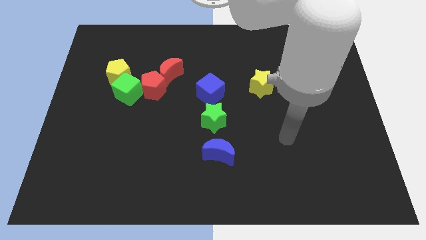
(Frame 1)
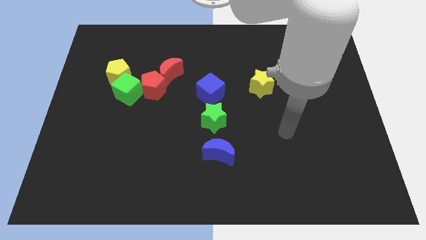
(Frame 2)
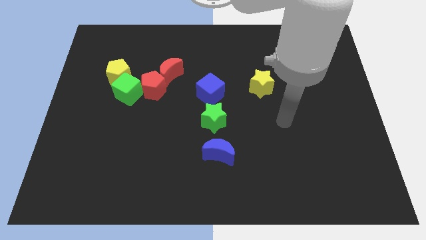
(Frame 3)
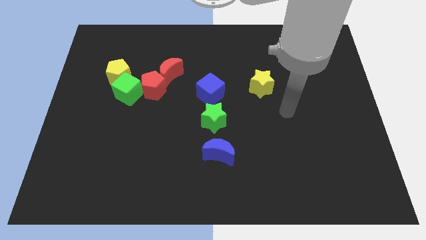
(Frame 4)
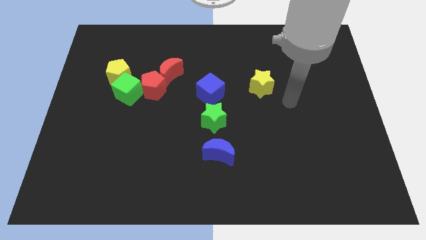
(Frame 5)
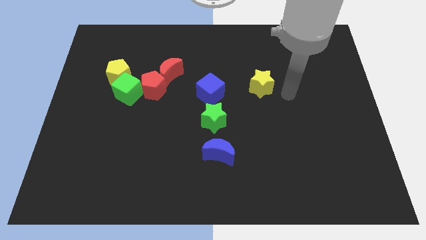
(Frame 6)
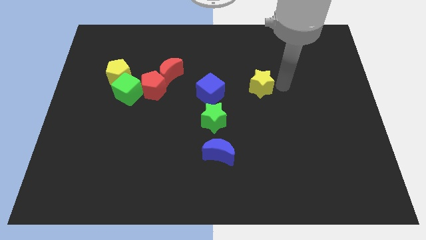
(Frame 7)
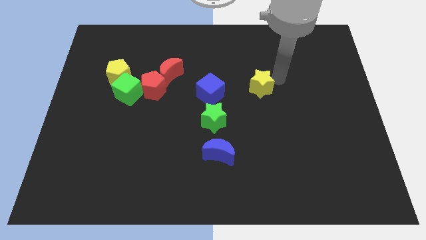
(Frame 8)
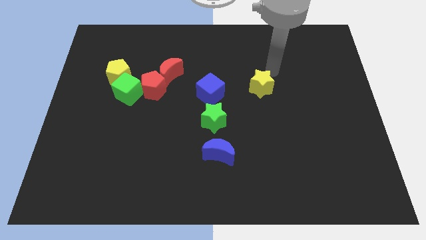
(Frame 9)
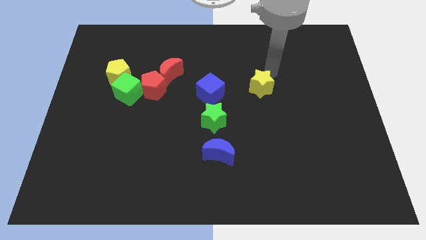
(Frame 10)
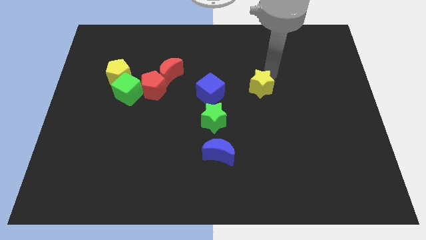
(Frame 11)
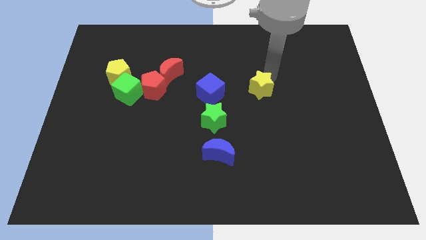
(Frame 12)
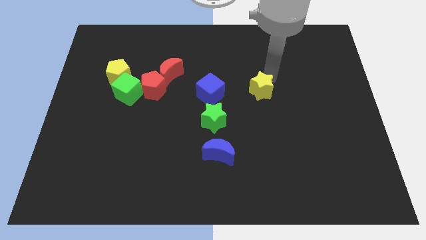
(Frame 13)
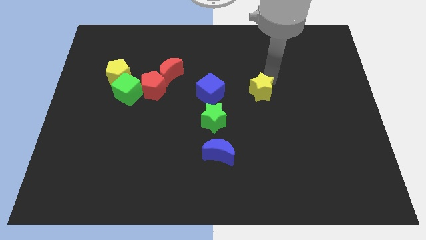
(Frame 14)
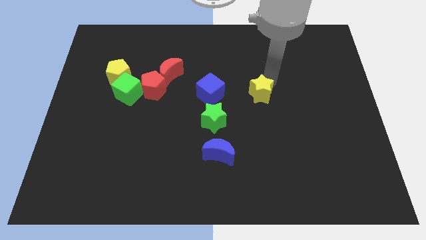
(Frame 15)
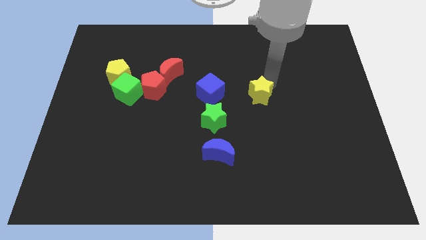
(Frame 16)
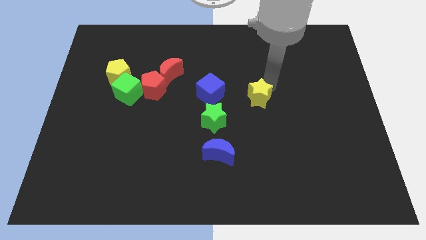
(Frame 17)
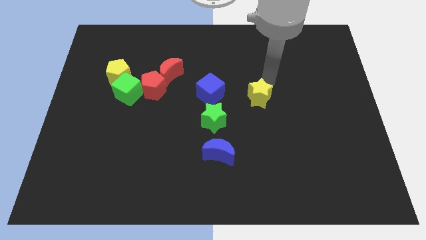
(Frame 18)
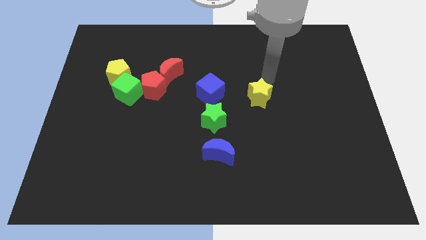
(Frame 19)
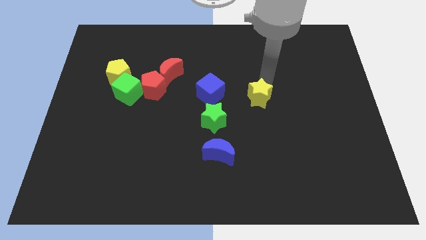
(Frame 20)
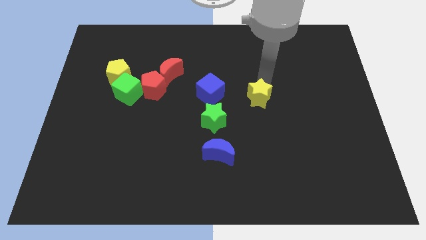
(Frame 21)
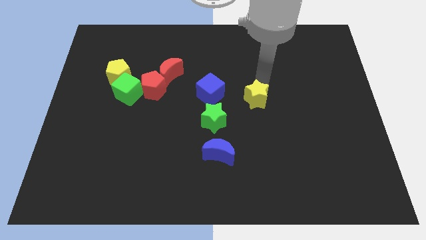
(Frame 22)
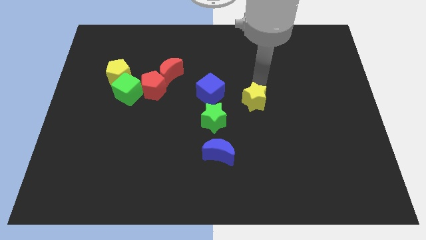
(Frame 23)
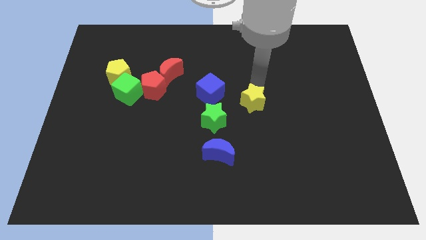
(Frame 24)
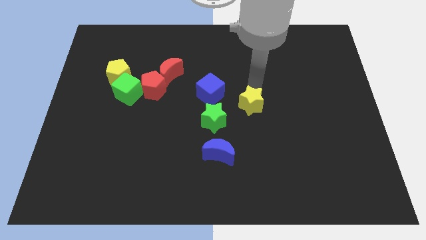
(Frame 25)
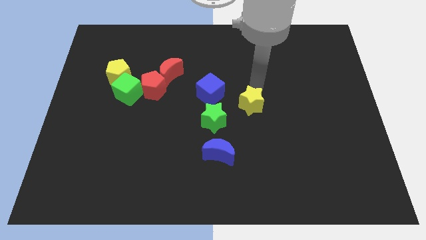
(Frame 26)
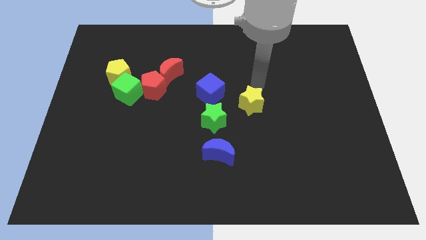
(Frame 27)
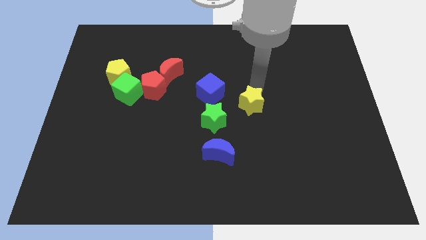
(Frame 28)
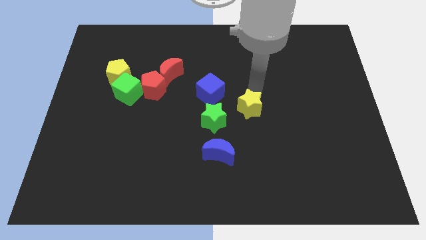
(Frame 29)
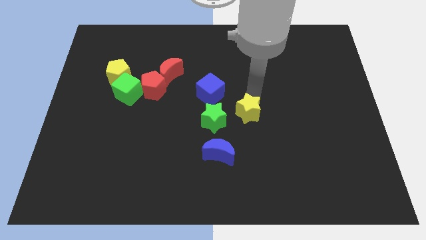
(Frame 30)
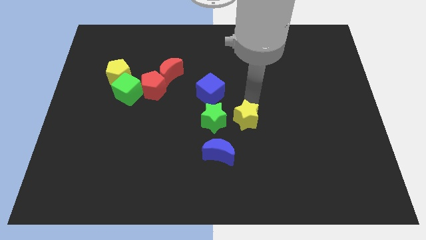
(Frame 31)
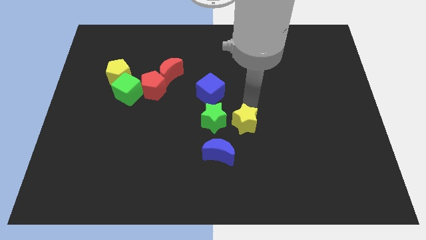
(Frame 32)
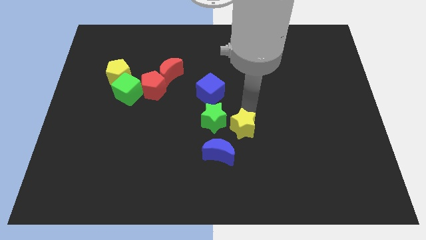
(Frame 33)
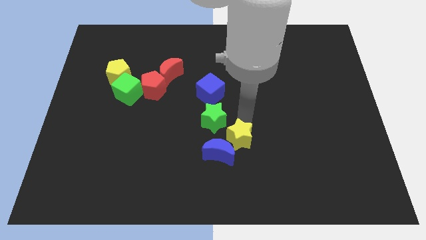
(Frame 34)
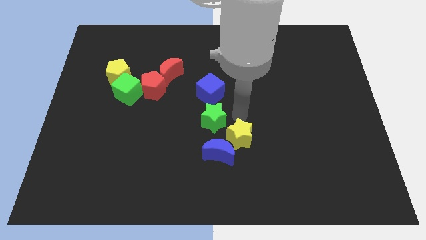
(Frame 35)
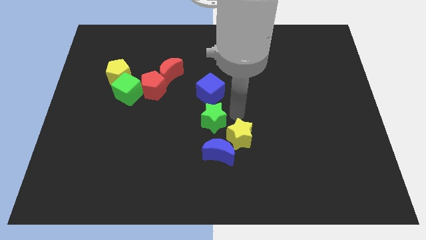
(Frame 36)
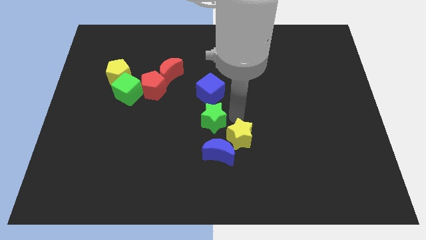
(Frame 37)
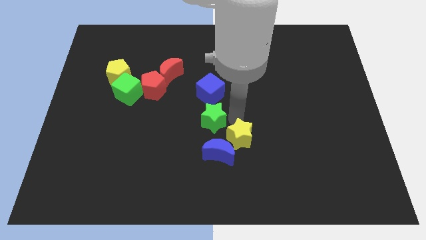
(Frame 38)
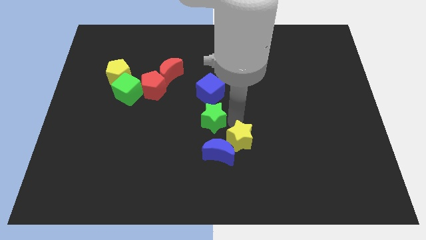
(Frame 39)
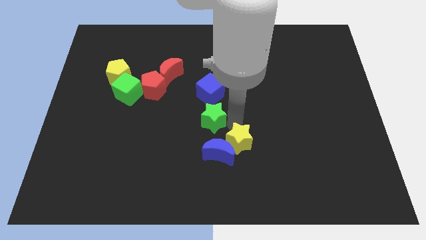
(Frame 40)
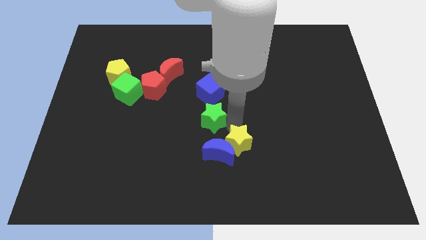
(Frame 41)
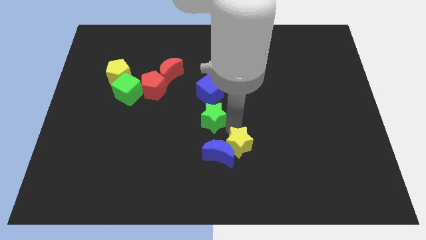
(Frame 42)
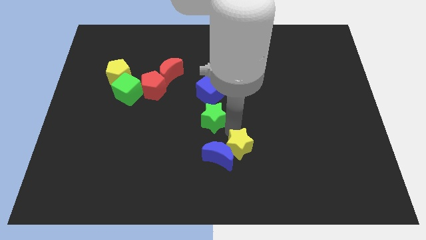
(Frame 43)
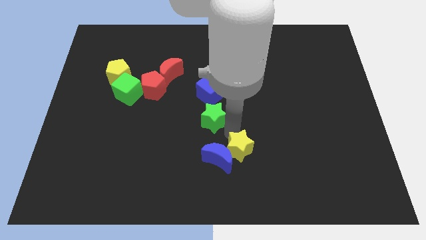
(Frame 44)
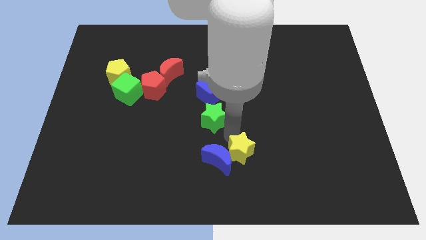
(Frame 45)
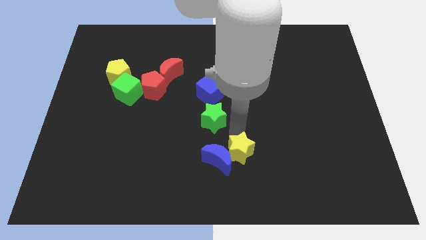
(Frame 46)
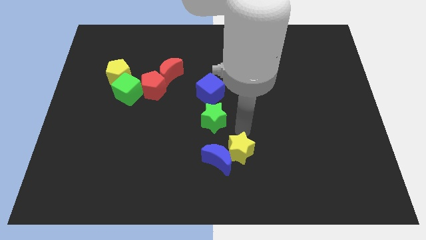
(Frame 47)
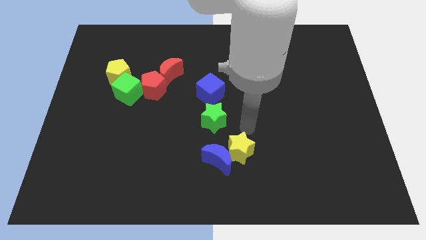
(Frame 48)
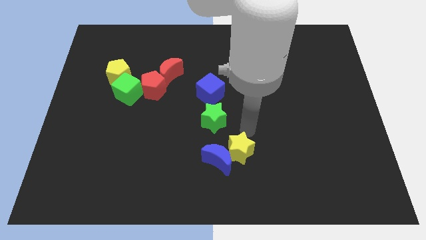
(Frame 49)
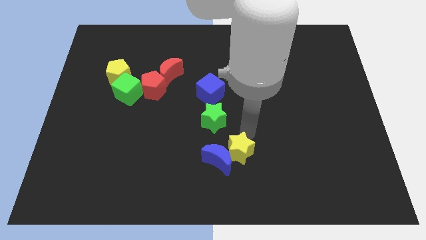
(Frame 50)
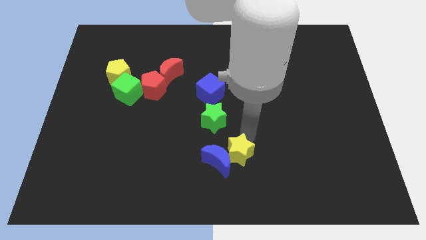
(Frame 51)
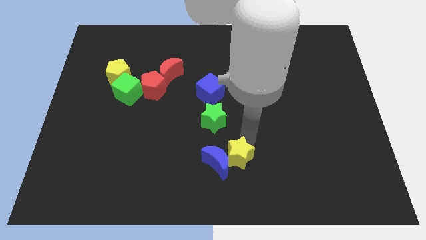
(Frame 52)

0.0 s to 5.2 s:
slide the yellow star to the bottom side

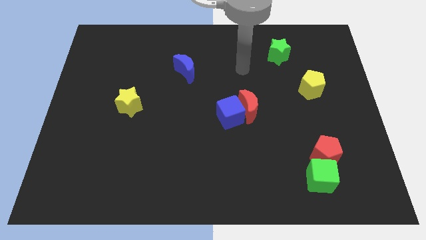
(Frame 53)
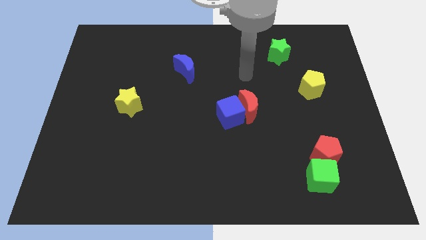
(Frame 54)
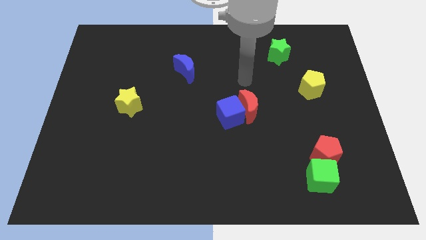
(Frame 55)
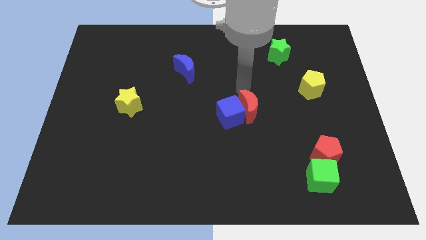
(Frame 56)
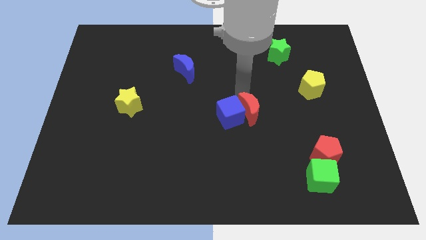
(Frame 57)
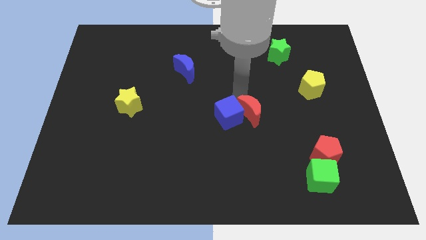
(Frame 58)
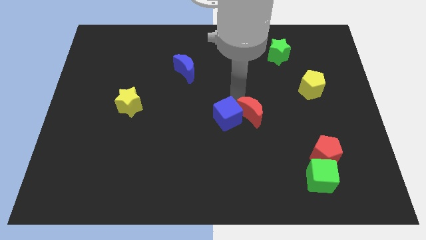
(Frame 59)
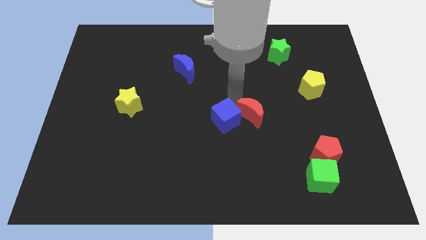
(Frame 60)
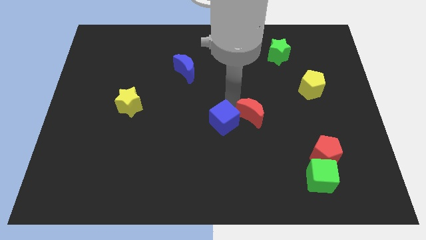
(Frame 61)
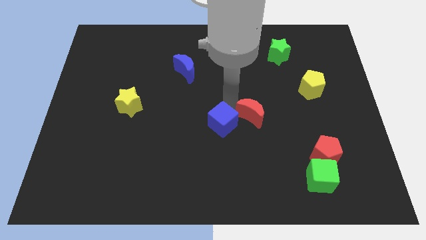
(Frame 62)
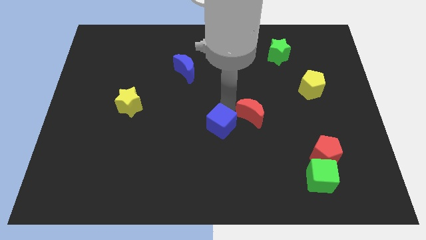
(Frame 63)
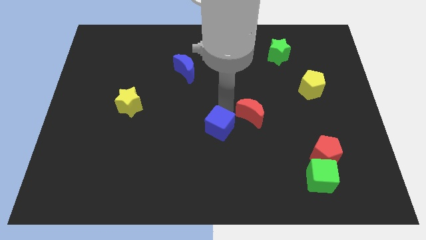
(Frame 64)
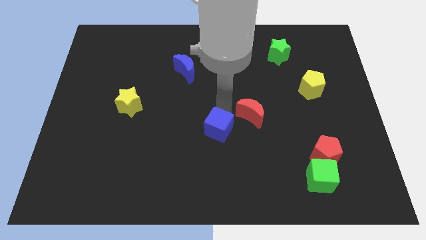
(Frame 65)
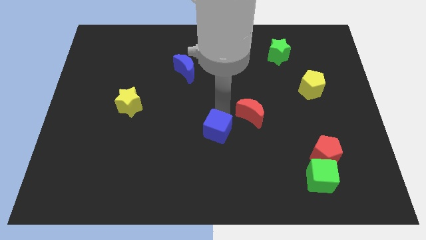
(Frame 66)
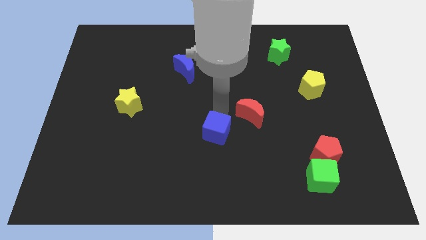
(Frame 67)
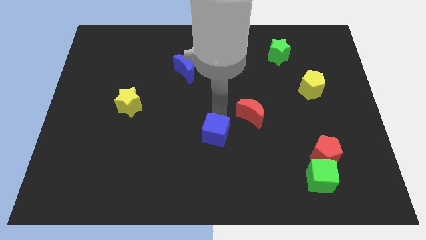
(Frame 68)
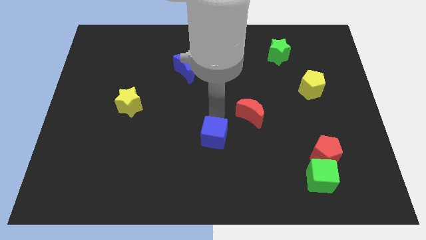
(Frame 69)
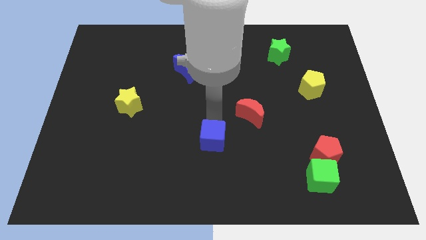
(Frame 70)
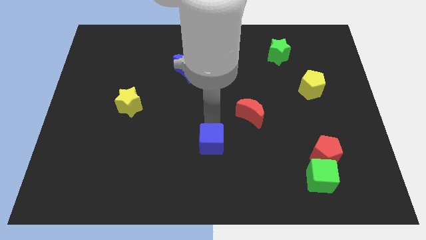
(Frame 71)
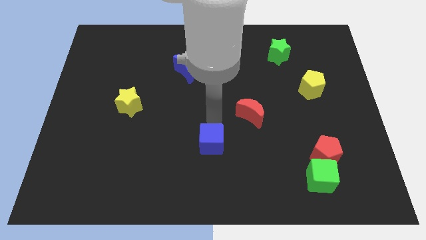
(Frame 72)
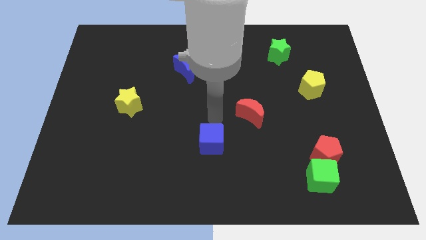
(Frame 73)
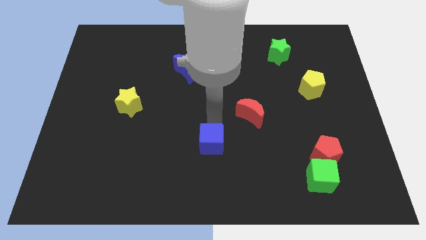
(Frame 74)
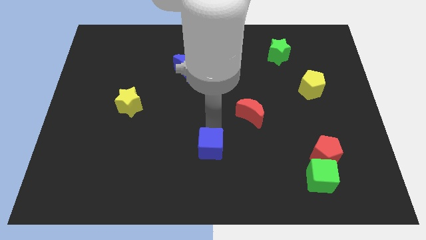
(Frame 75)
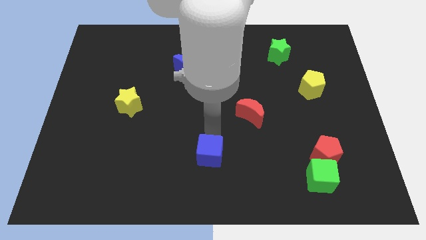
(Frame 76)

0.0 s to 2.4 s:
move the blue cube to the bottom side
